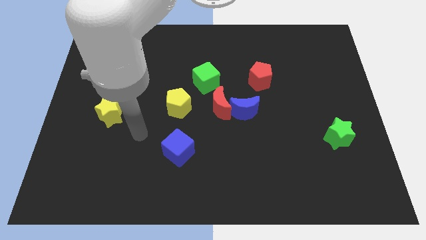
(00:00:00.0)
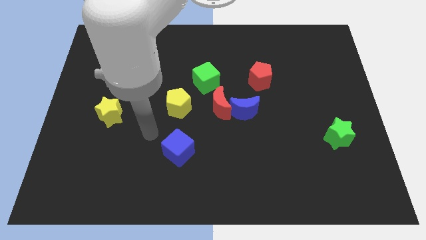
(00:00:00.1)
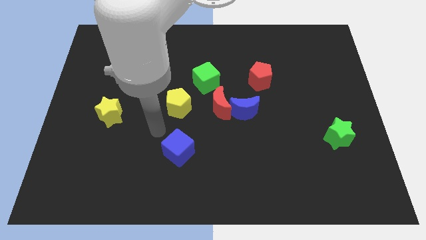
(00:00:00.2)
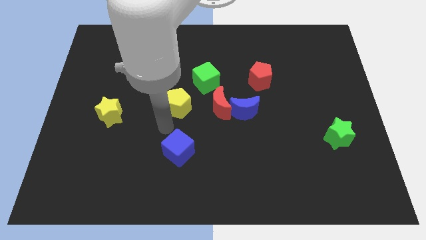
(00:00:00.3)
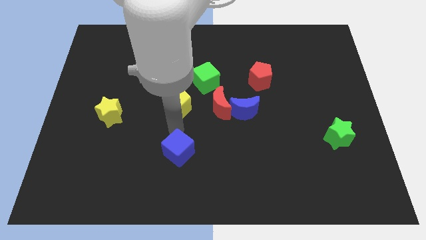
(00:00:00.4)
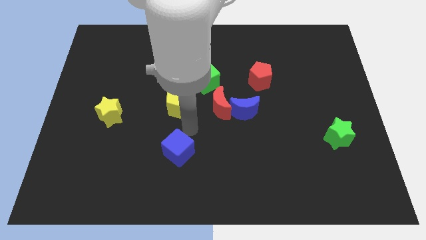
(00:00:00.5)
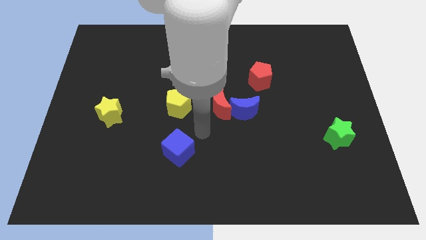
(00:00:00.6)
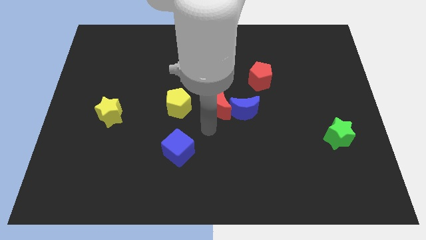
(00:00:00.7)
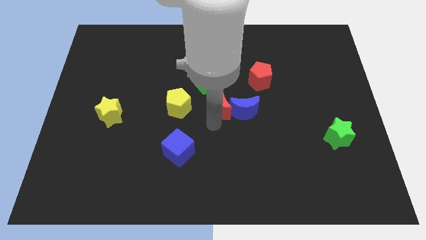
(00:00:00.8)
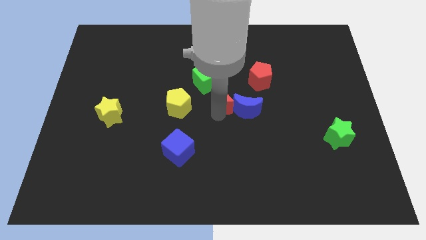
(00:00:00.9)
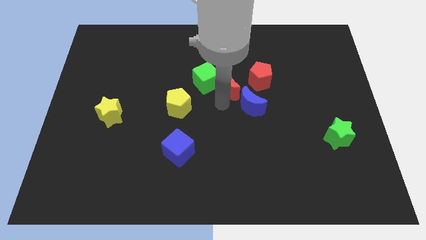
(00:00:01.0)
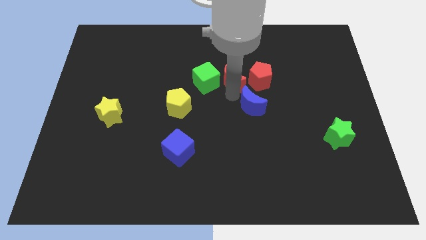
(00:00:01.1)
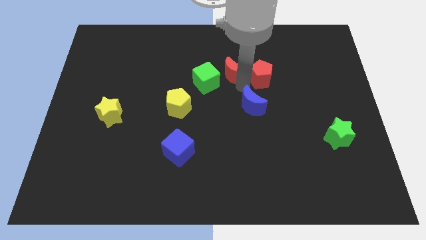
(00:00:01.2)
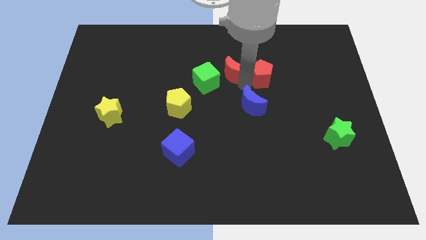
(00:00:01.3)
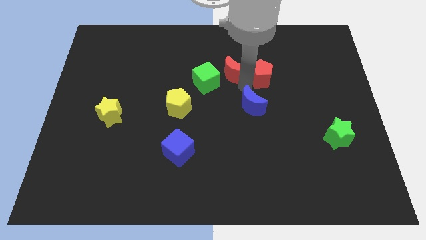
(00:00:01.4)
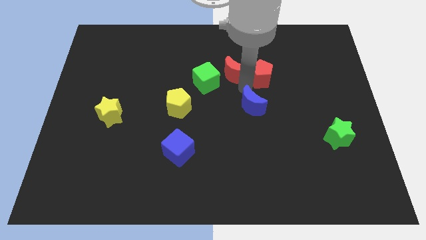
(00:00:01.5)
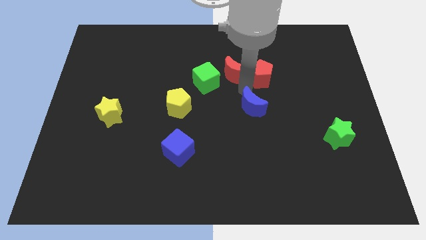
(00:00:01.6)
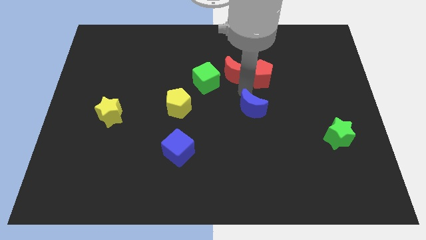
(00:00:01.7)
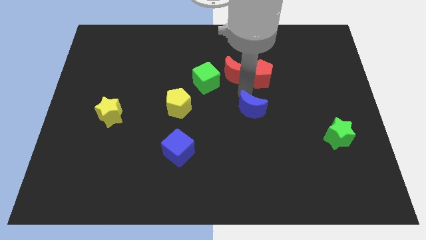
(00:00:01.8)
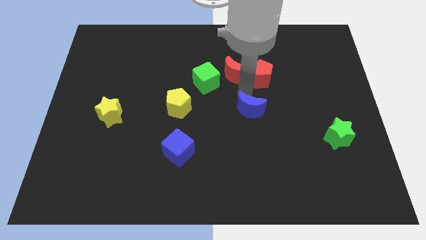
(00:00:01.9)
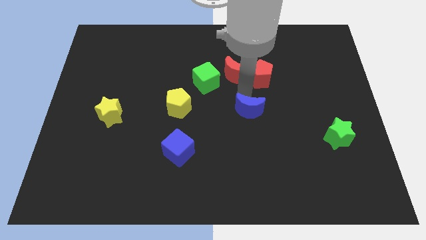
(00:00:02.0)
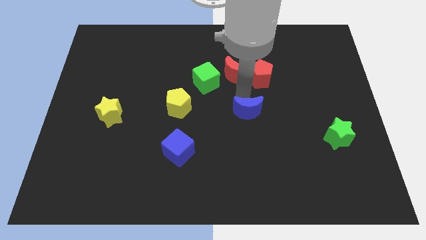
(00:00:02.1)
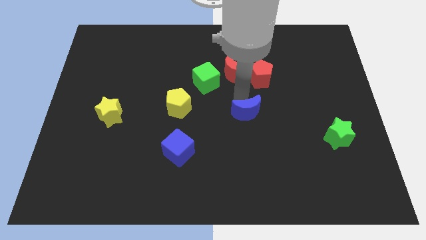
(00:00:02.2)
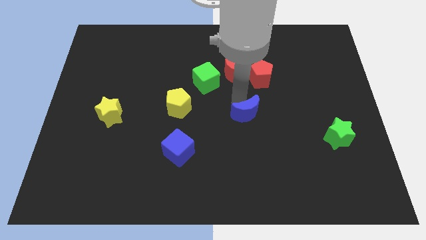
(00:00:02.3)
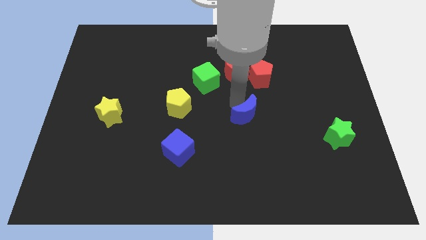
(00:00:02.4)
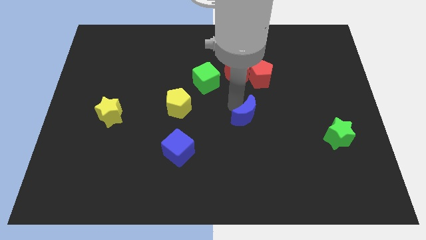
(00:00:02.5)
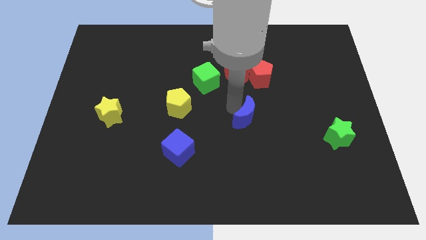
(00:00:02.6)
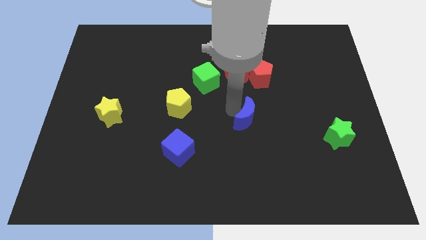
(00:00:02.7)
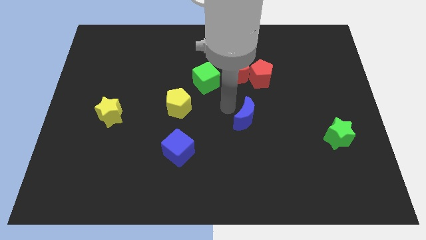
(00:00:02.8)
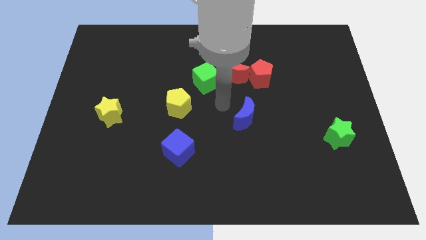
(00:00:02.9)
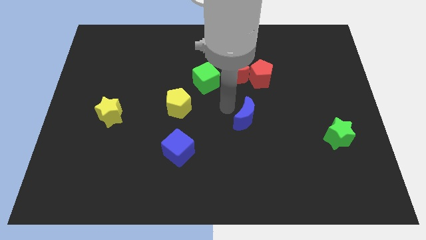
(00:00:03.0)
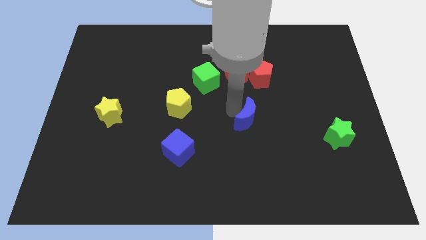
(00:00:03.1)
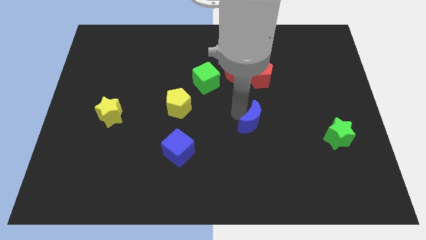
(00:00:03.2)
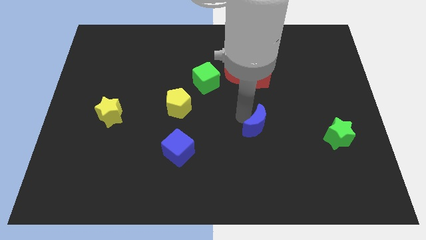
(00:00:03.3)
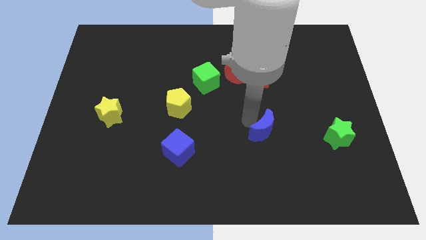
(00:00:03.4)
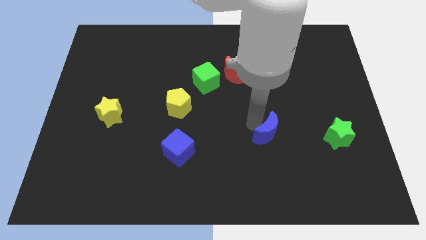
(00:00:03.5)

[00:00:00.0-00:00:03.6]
slide the blue moon a bit down and right diagonally

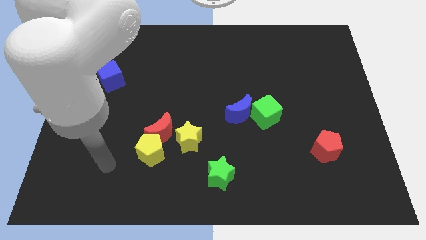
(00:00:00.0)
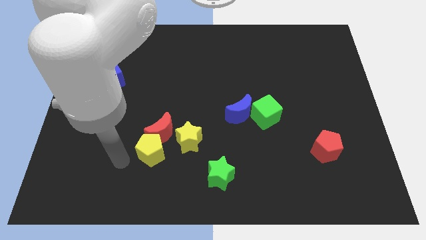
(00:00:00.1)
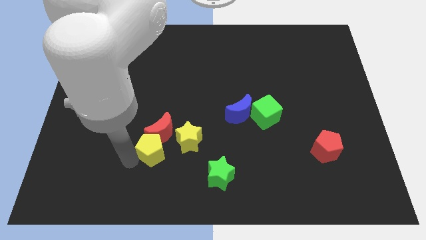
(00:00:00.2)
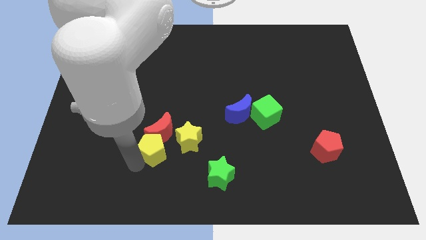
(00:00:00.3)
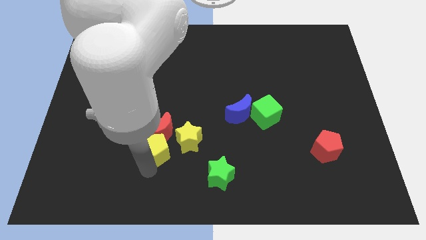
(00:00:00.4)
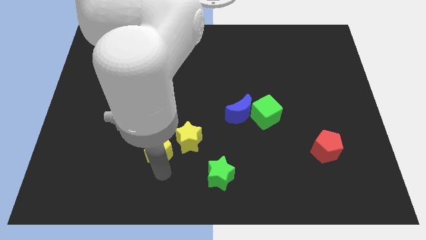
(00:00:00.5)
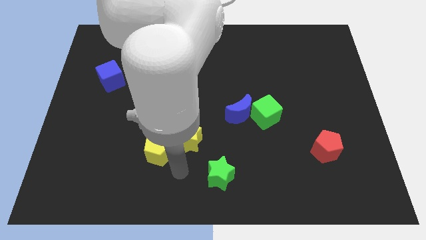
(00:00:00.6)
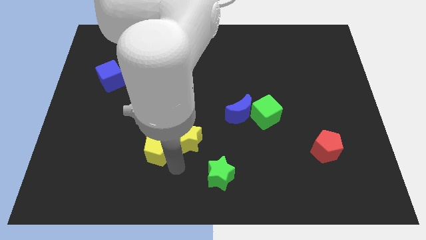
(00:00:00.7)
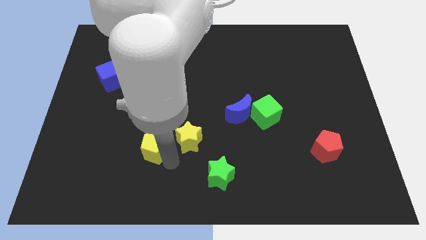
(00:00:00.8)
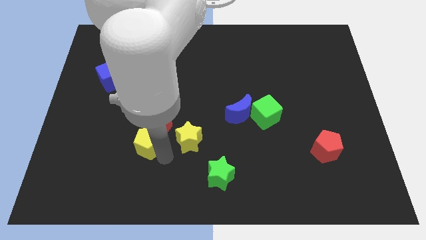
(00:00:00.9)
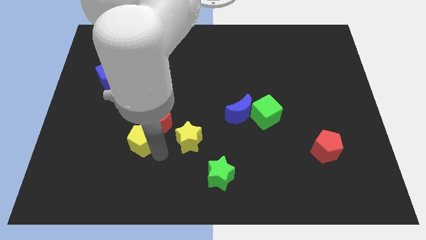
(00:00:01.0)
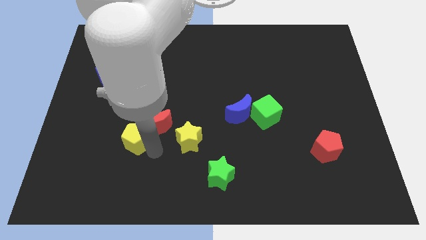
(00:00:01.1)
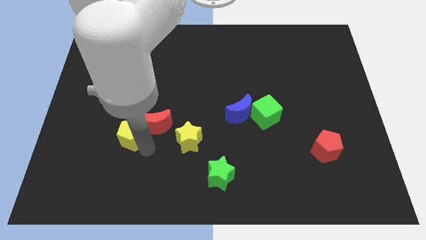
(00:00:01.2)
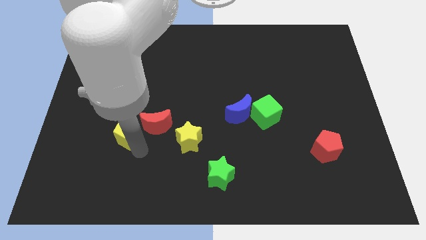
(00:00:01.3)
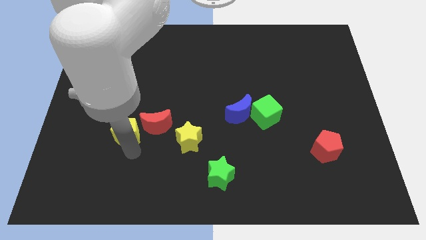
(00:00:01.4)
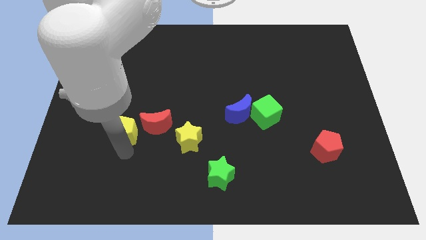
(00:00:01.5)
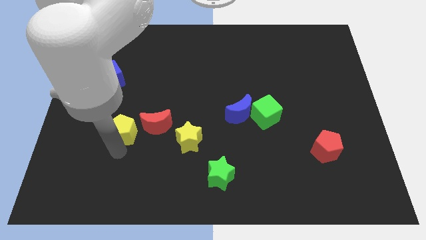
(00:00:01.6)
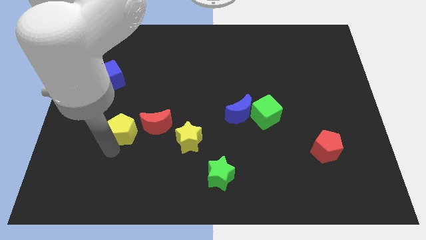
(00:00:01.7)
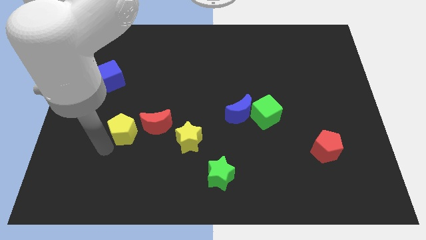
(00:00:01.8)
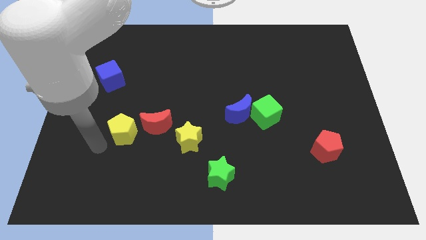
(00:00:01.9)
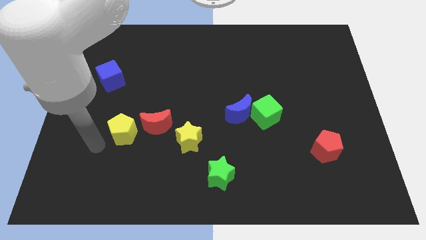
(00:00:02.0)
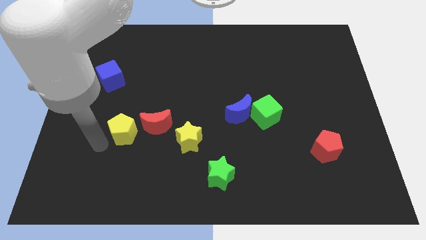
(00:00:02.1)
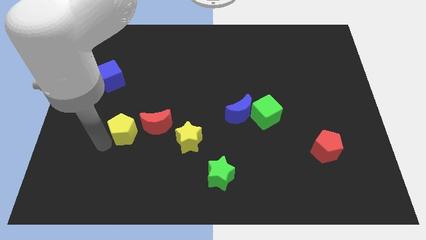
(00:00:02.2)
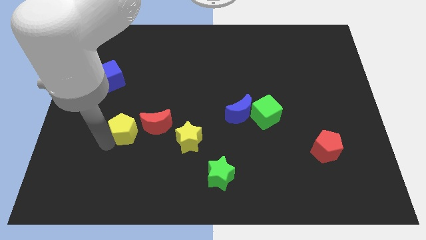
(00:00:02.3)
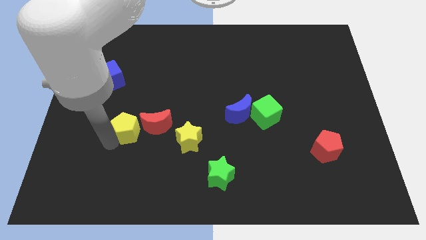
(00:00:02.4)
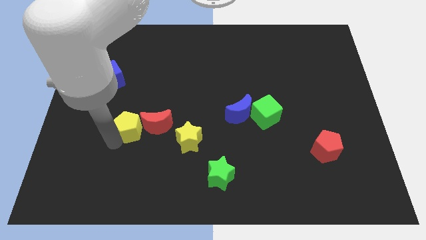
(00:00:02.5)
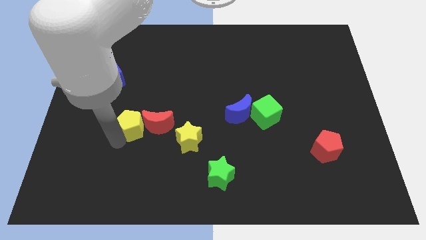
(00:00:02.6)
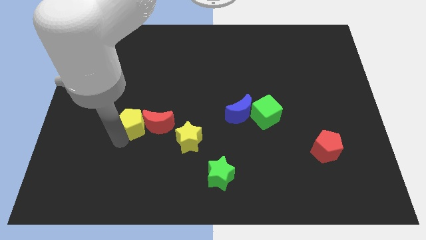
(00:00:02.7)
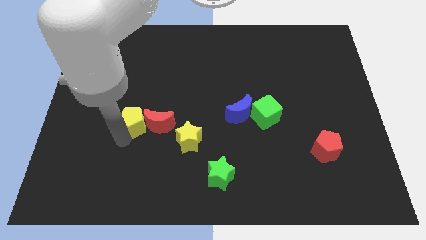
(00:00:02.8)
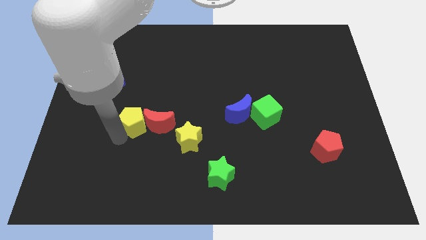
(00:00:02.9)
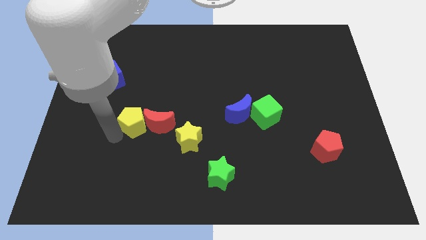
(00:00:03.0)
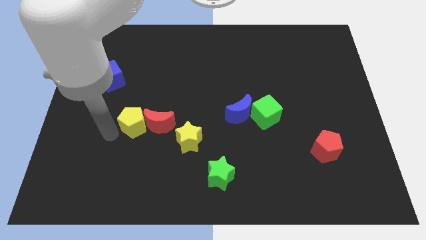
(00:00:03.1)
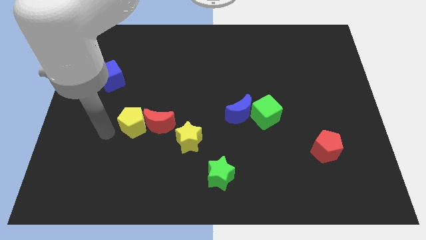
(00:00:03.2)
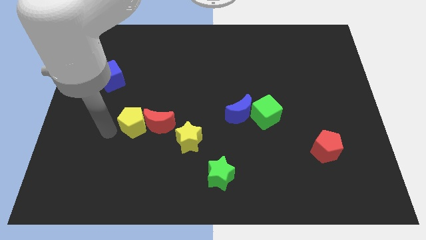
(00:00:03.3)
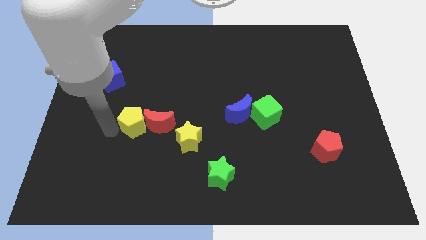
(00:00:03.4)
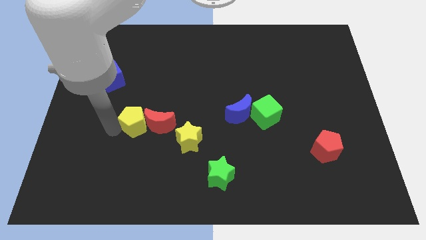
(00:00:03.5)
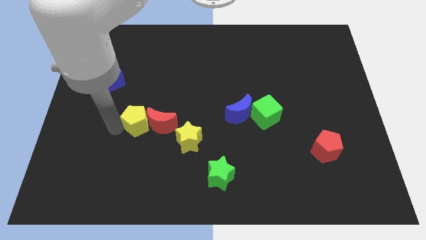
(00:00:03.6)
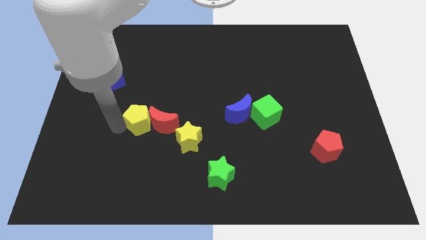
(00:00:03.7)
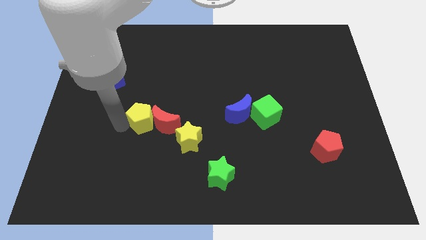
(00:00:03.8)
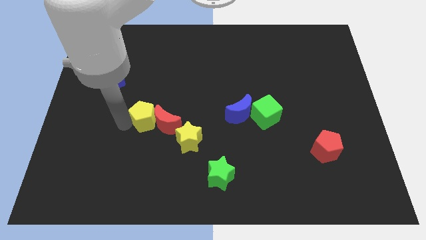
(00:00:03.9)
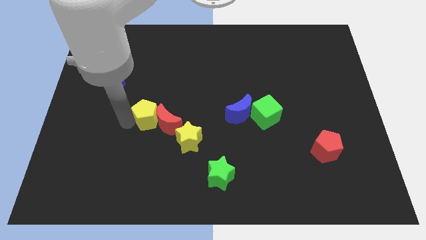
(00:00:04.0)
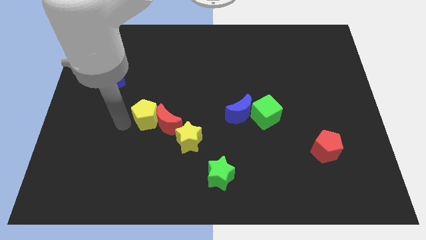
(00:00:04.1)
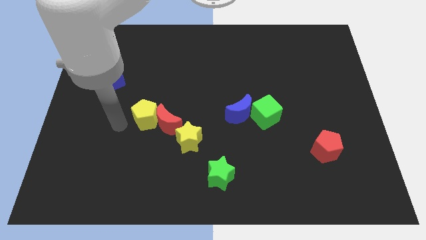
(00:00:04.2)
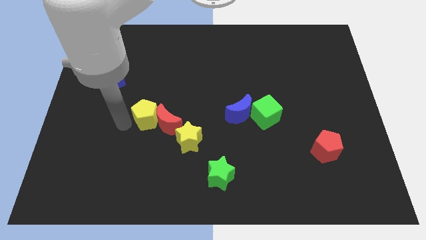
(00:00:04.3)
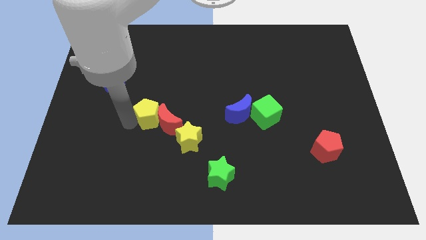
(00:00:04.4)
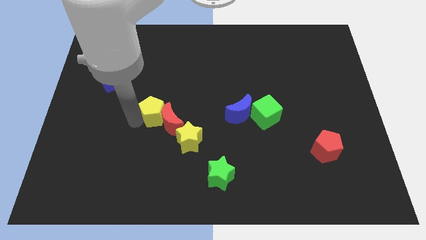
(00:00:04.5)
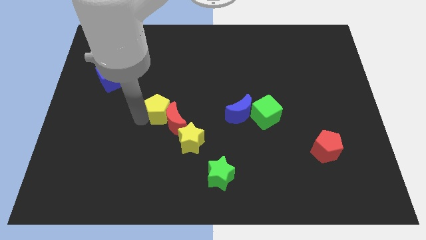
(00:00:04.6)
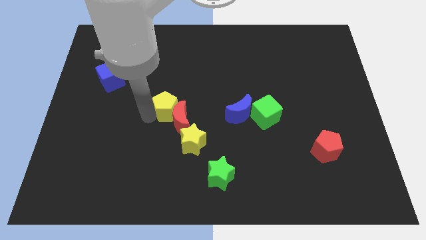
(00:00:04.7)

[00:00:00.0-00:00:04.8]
slide the yellow pentagon a bit upwards and right
